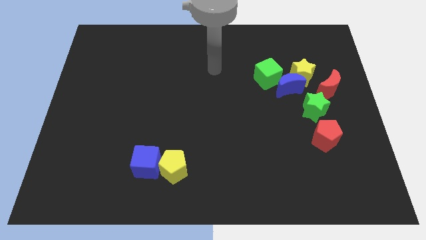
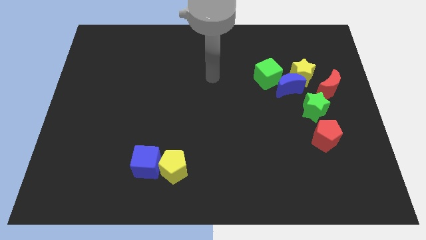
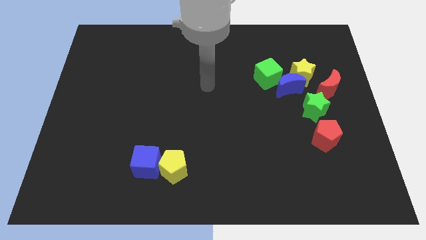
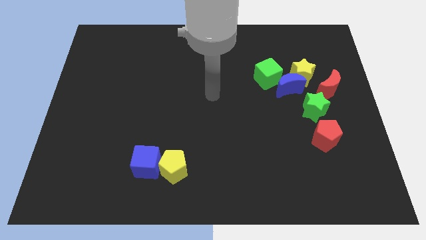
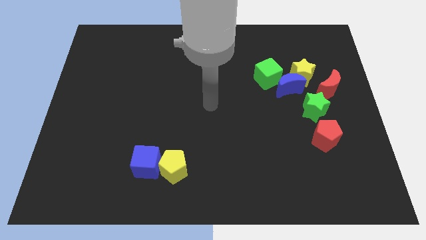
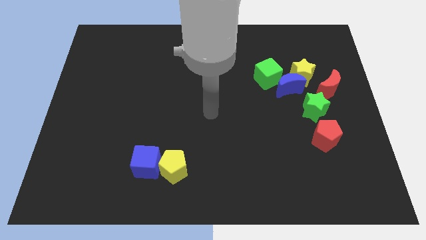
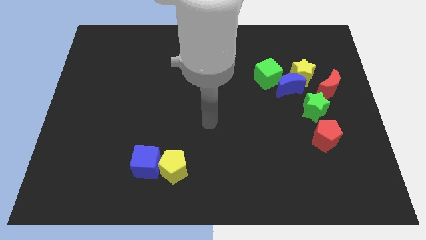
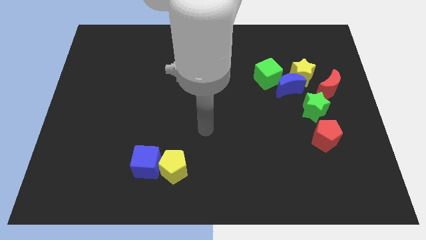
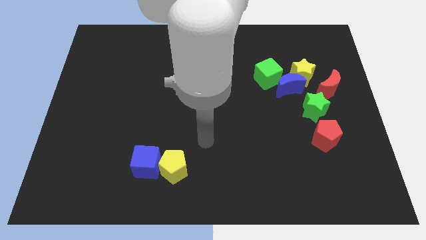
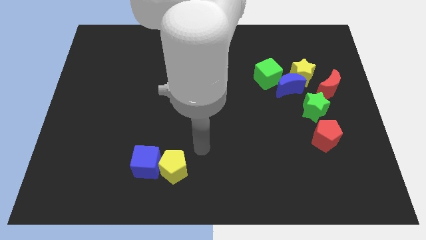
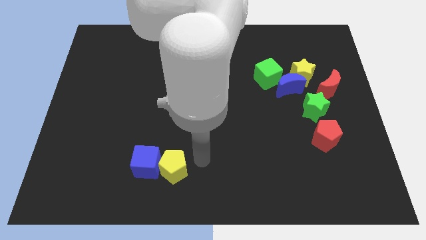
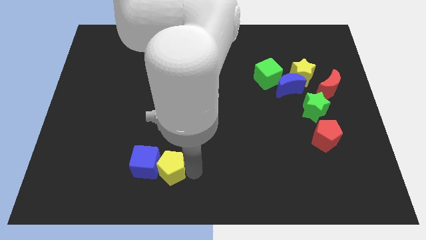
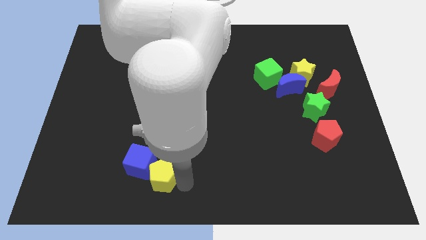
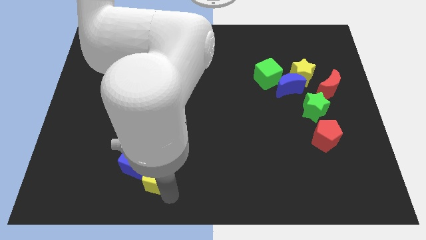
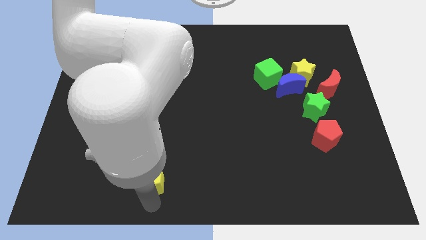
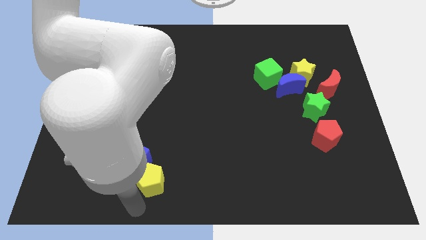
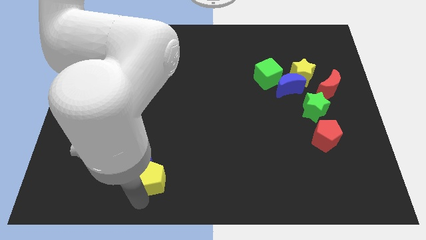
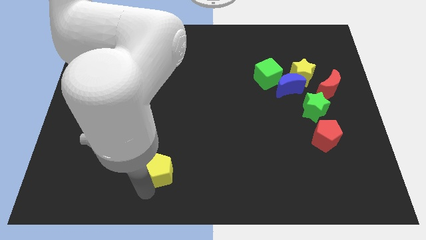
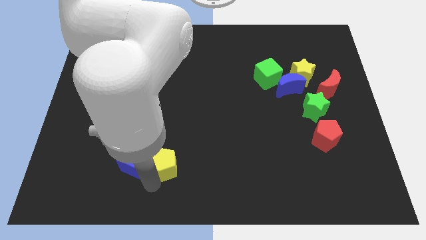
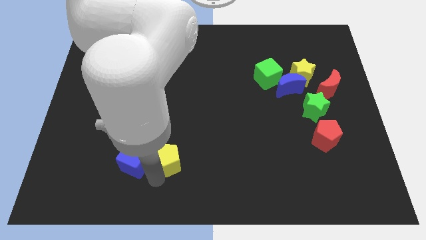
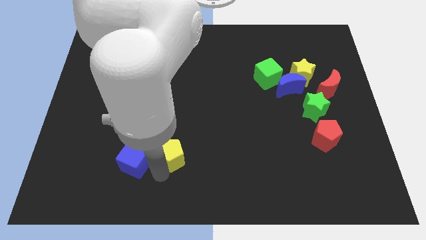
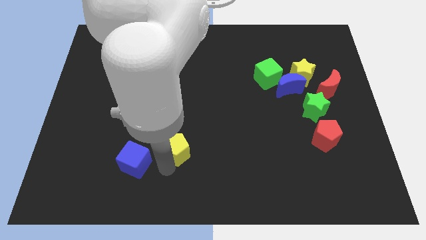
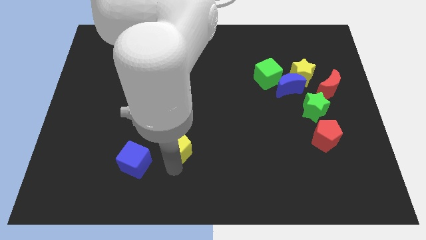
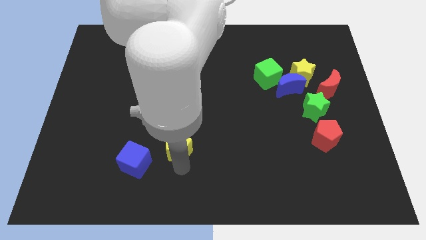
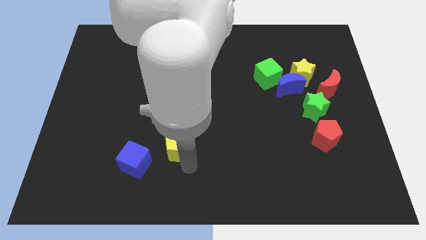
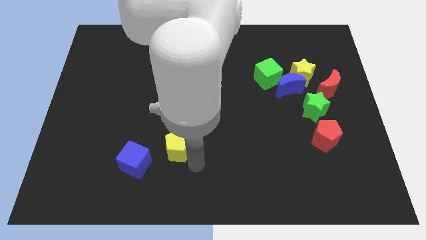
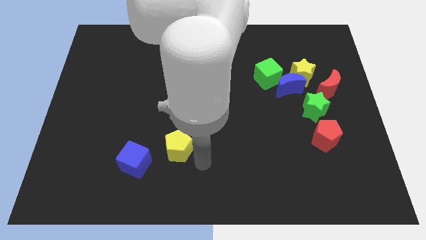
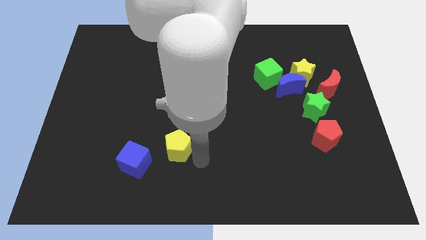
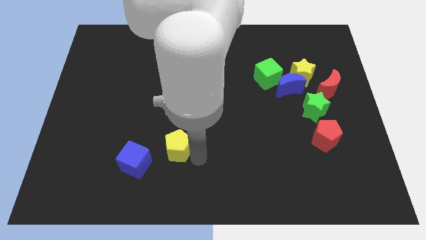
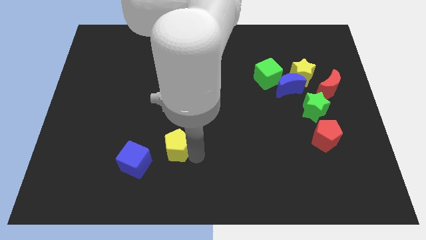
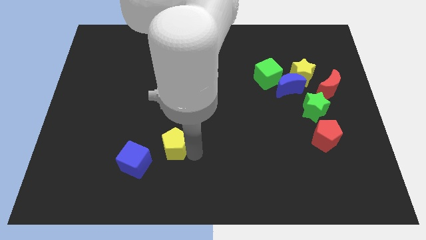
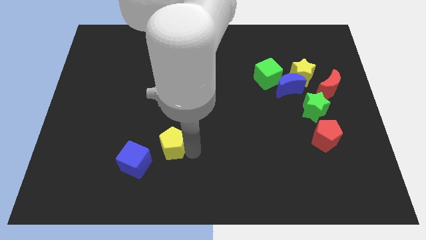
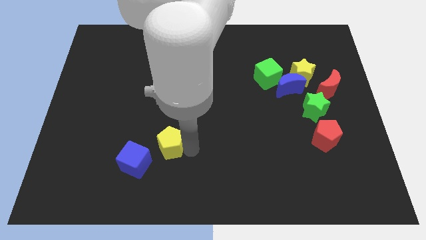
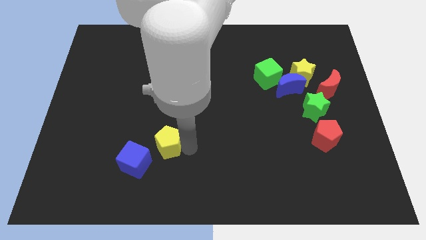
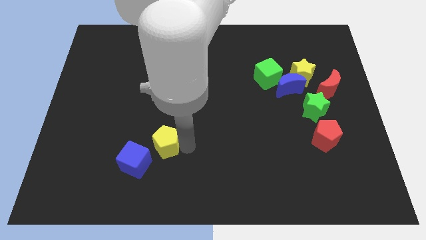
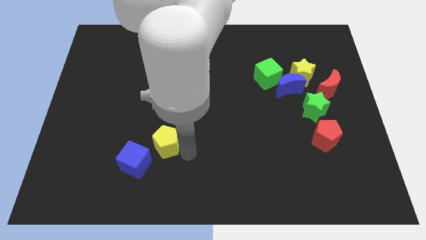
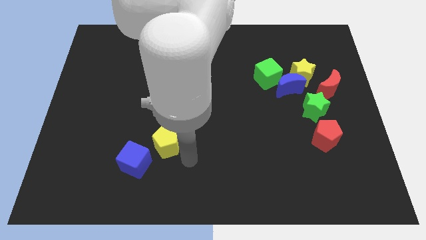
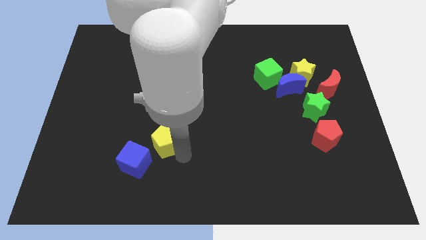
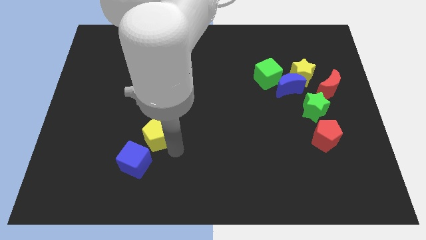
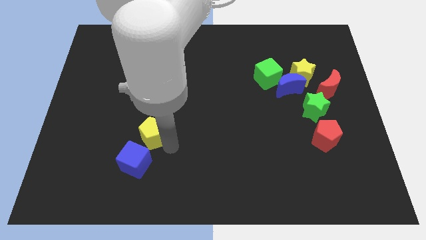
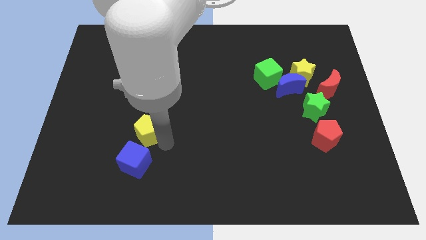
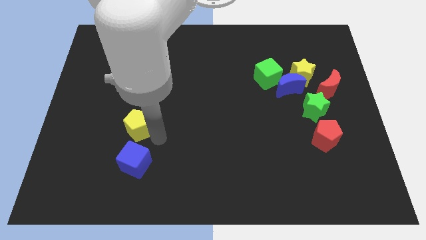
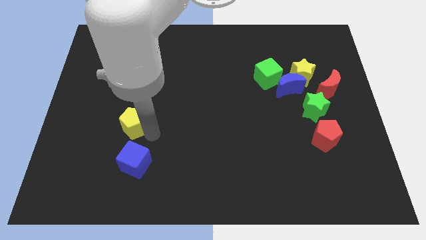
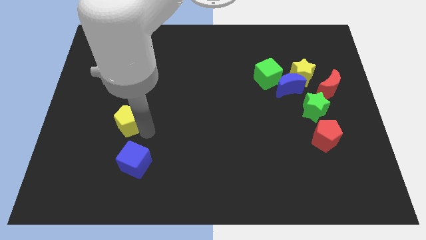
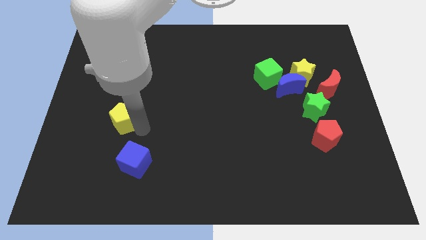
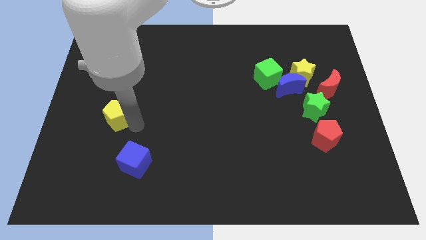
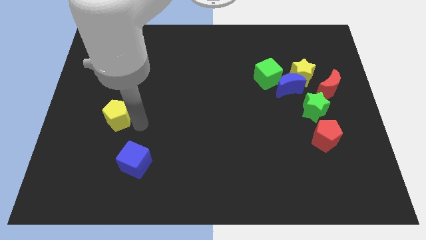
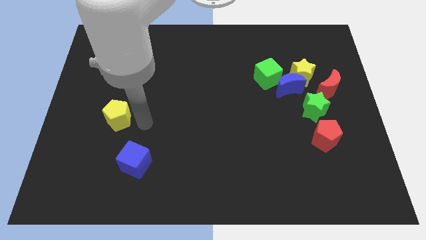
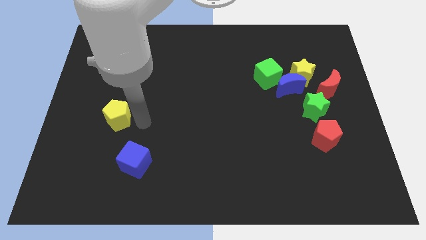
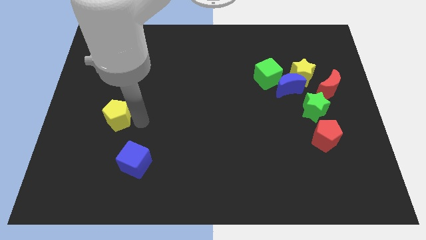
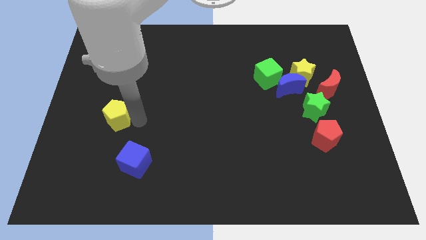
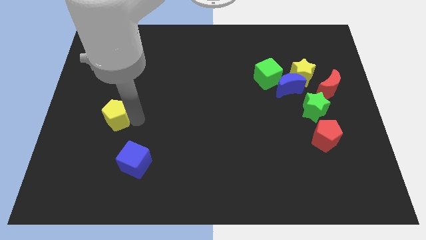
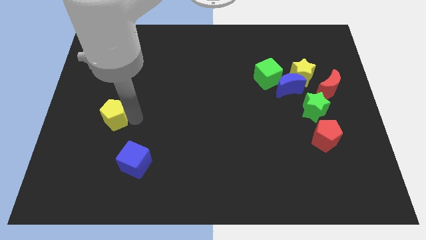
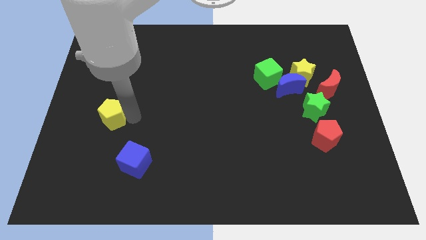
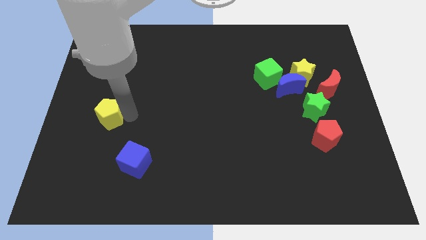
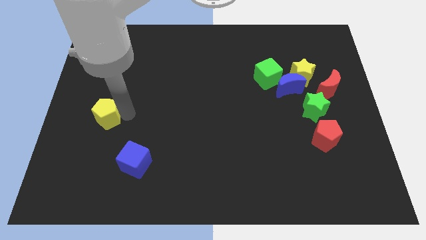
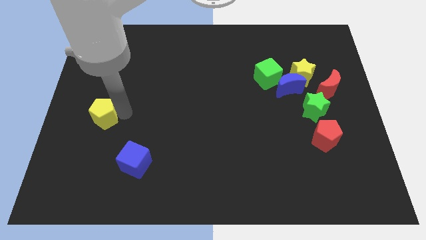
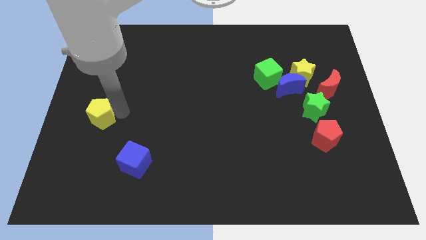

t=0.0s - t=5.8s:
push the yellow pentagon to the center left

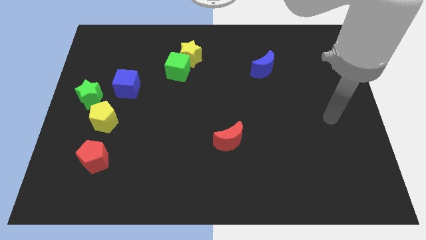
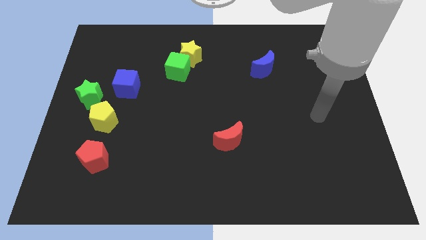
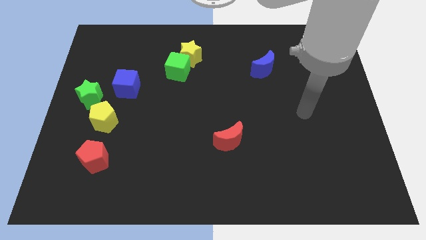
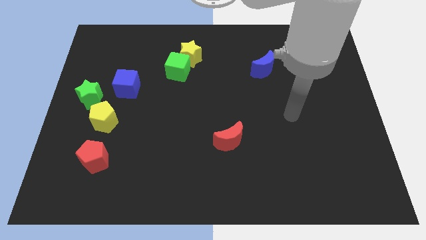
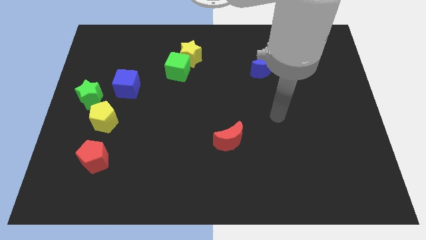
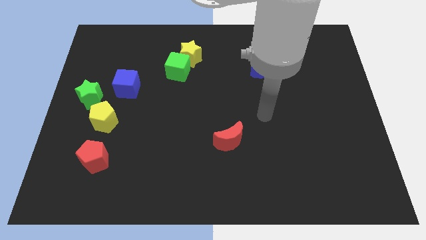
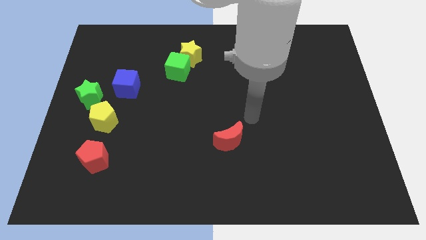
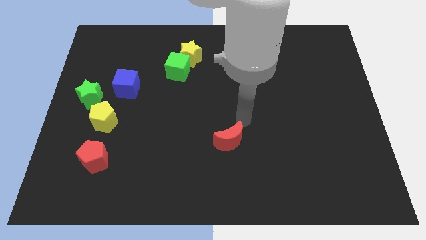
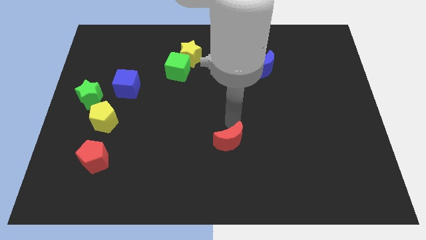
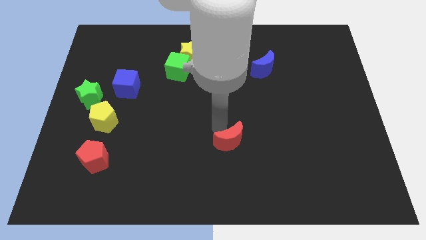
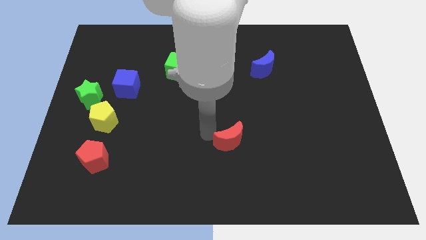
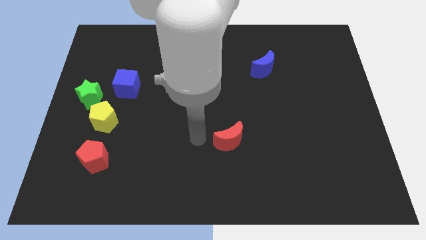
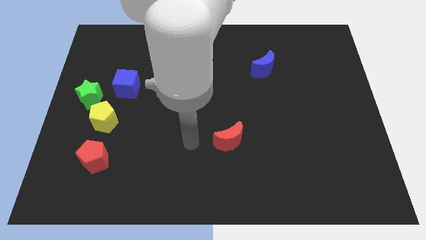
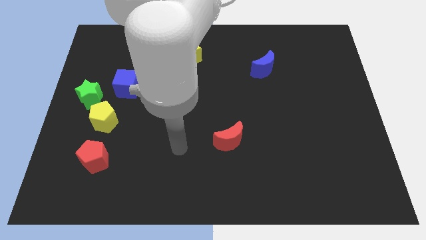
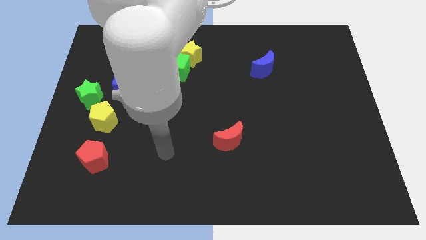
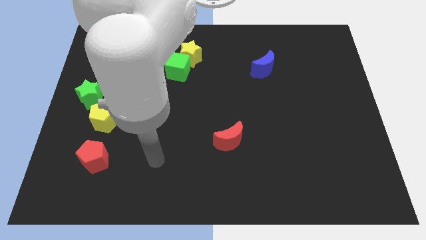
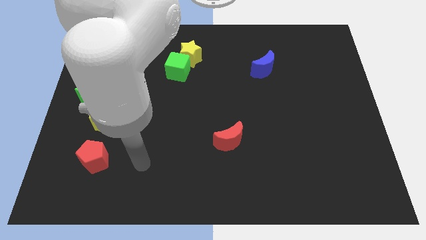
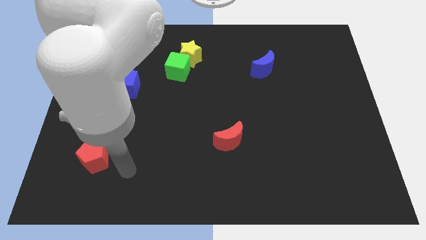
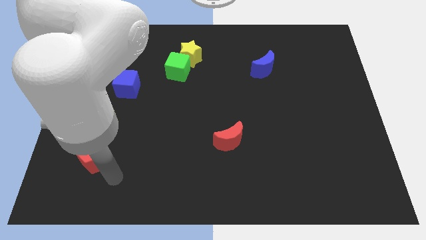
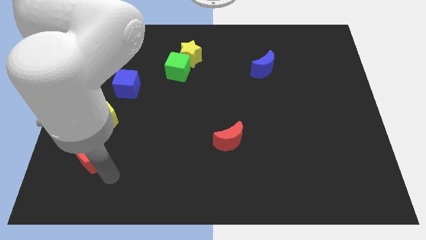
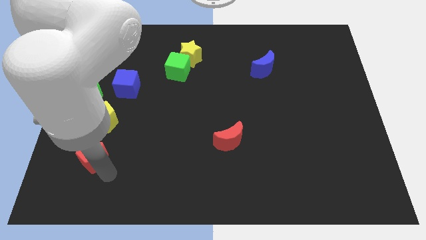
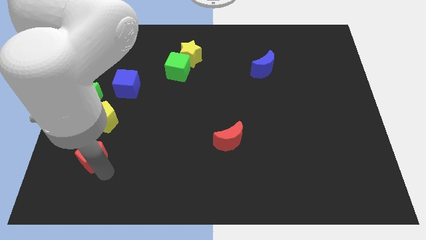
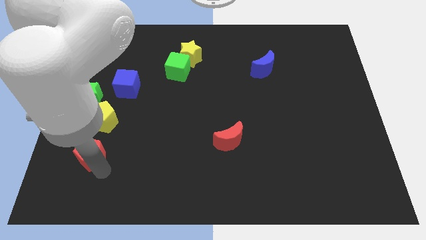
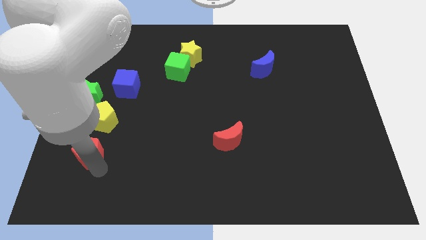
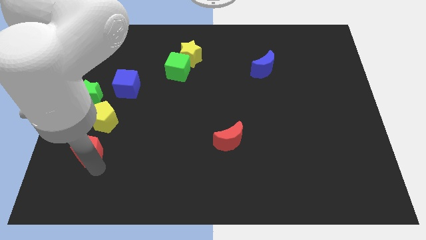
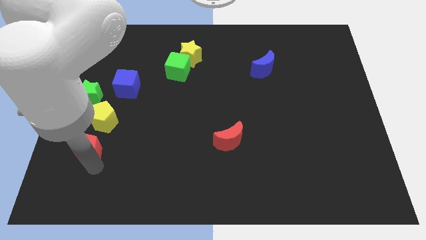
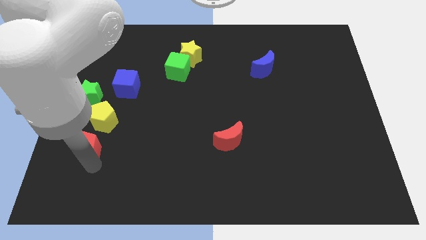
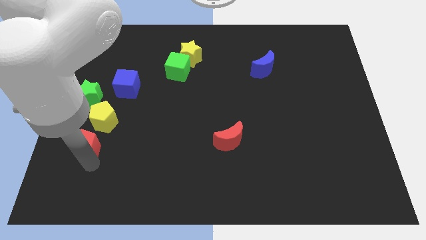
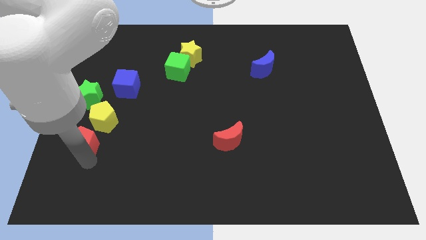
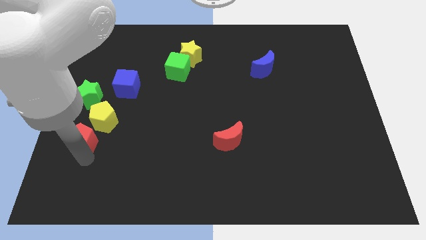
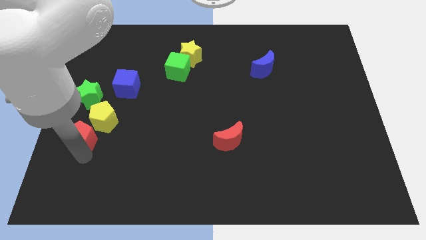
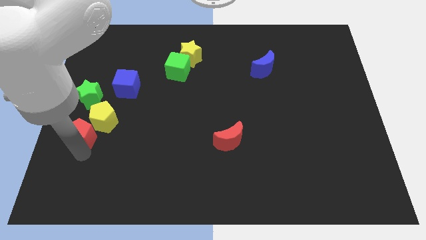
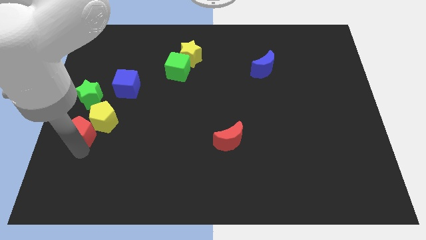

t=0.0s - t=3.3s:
move the red pentagon to the left side
